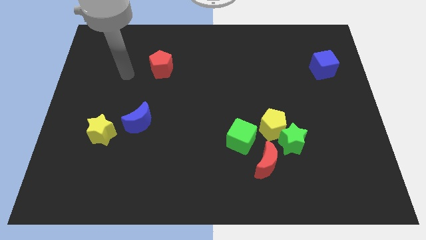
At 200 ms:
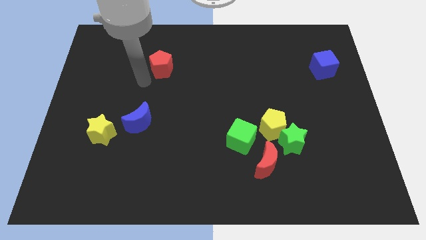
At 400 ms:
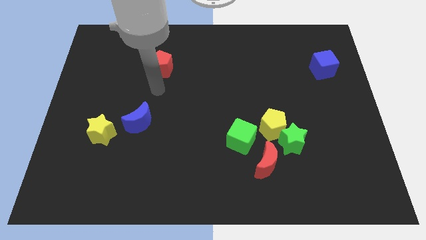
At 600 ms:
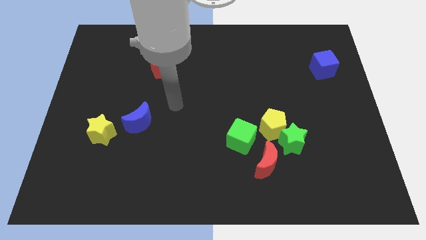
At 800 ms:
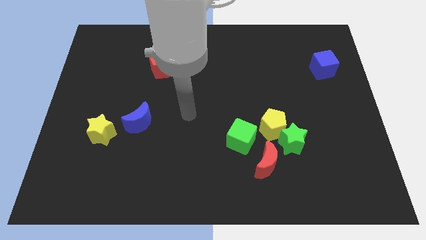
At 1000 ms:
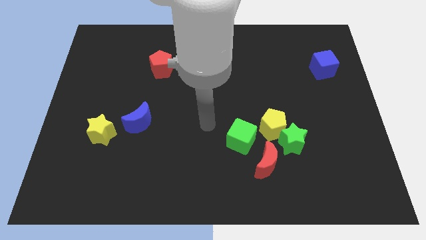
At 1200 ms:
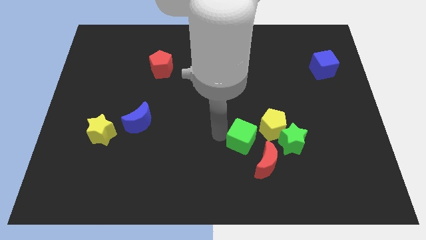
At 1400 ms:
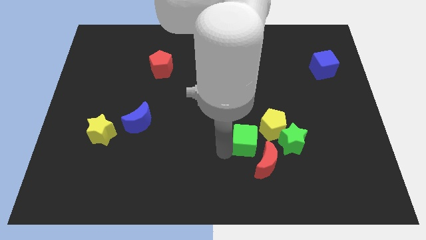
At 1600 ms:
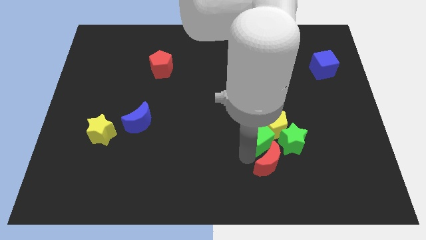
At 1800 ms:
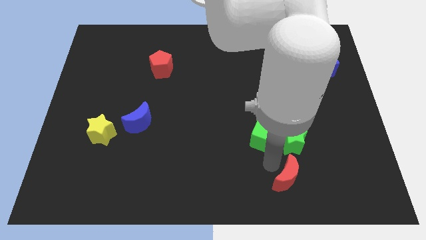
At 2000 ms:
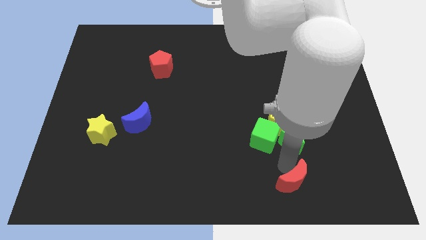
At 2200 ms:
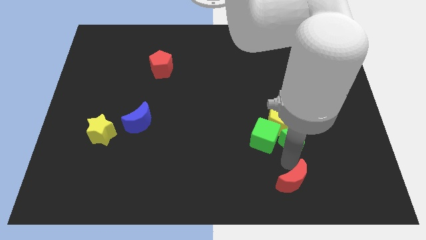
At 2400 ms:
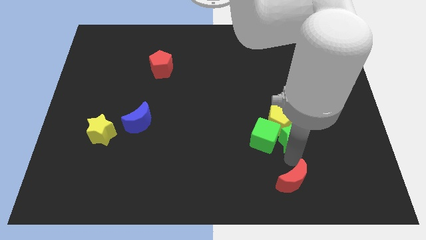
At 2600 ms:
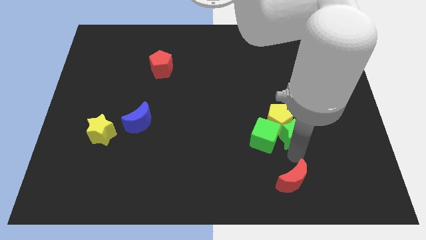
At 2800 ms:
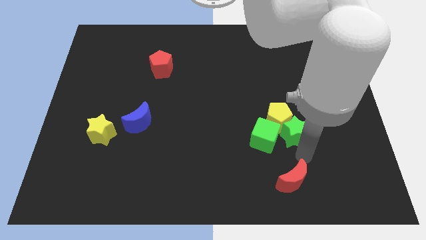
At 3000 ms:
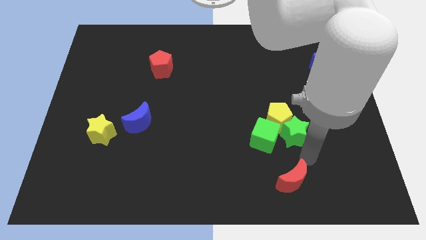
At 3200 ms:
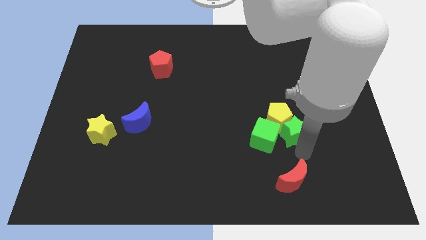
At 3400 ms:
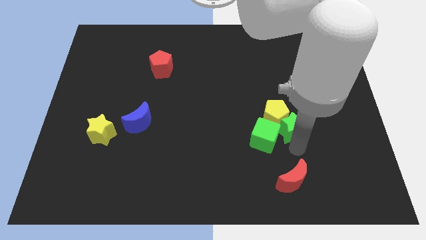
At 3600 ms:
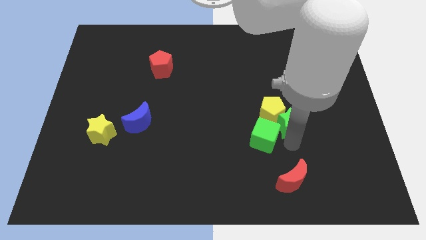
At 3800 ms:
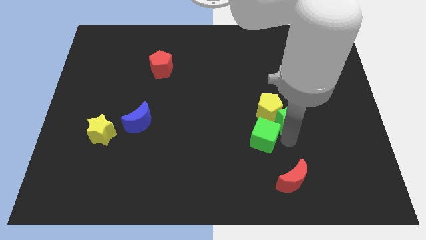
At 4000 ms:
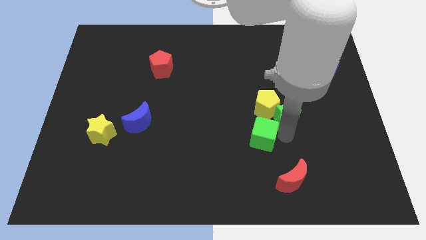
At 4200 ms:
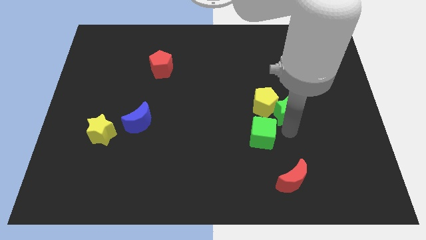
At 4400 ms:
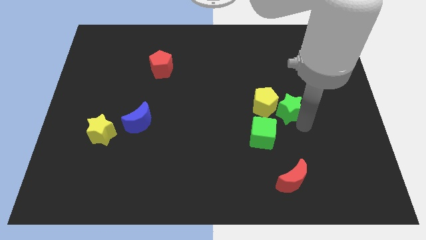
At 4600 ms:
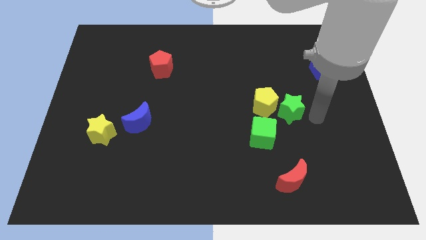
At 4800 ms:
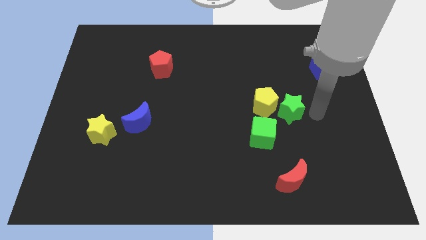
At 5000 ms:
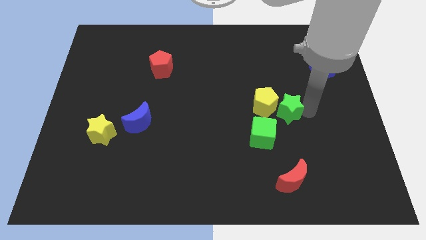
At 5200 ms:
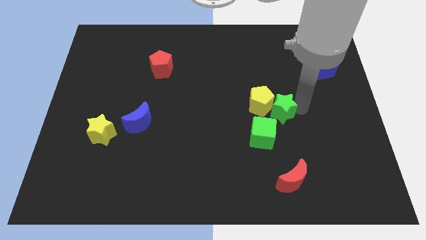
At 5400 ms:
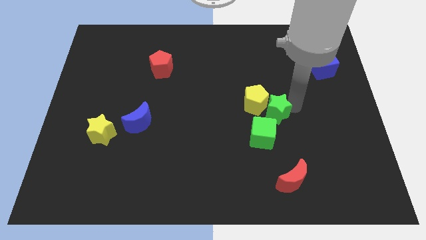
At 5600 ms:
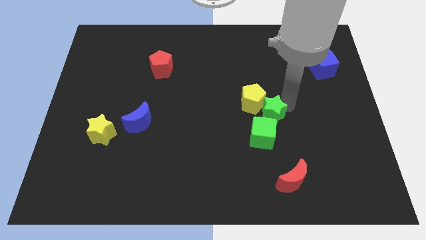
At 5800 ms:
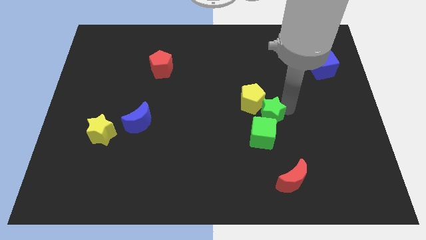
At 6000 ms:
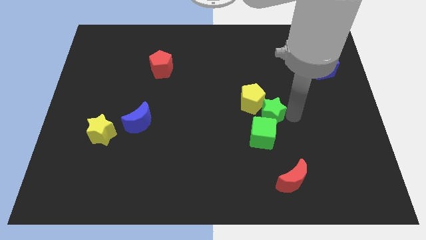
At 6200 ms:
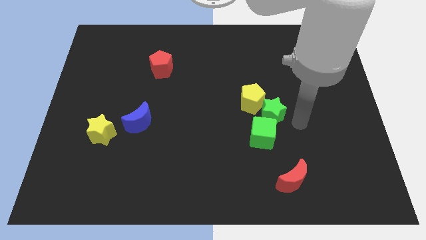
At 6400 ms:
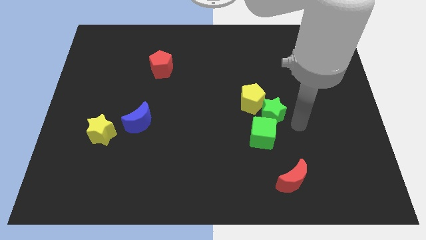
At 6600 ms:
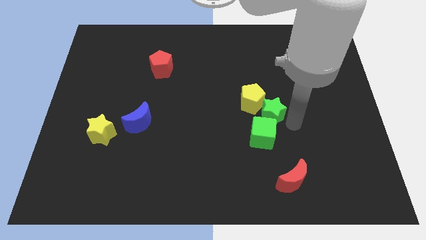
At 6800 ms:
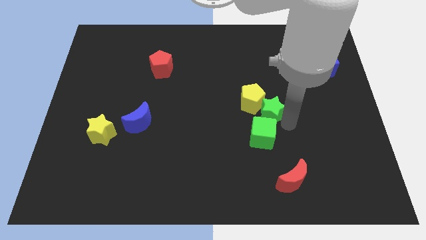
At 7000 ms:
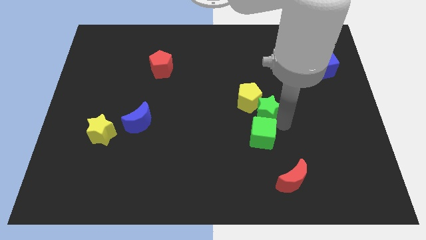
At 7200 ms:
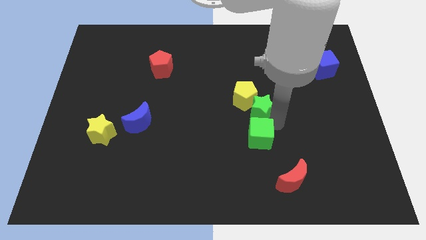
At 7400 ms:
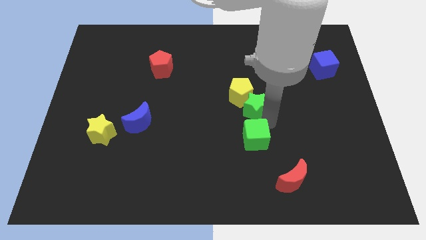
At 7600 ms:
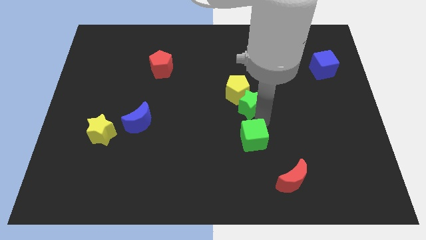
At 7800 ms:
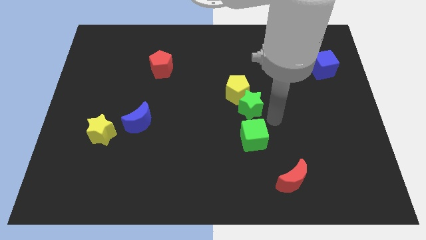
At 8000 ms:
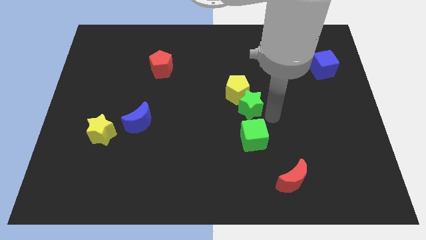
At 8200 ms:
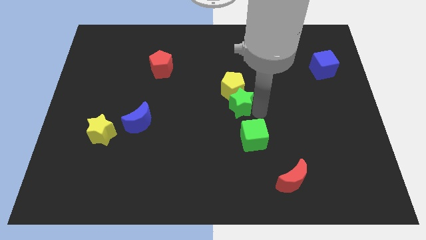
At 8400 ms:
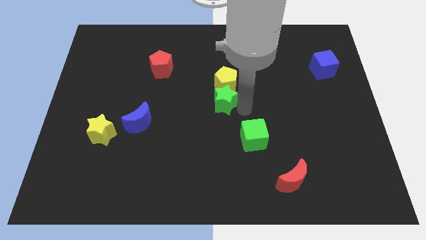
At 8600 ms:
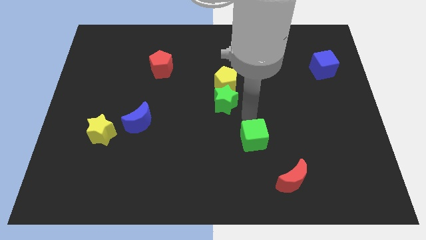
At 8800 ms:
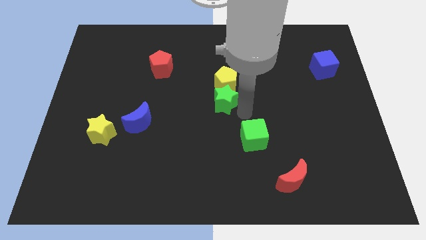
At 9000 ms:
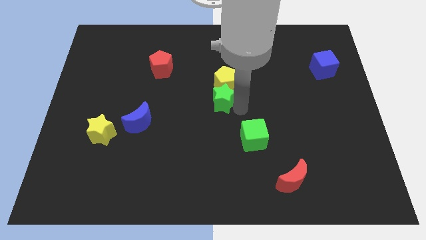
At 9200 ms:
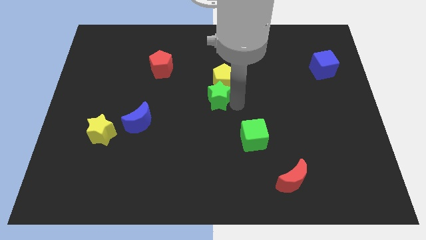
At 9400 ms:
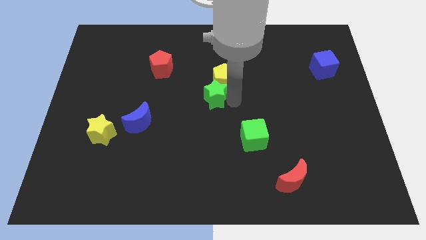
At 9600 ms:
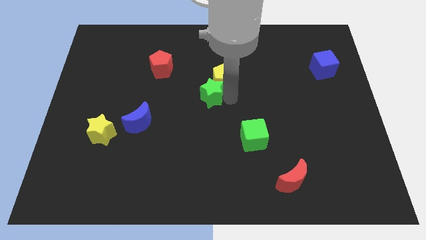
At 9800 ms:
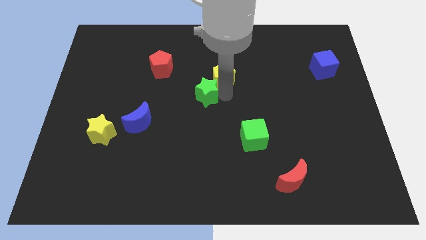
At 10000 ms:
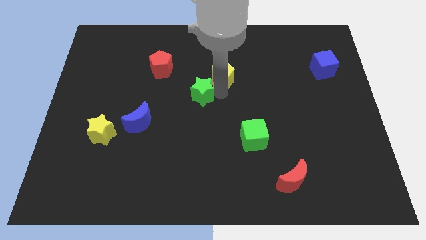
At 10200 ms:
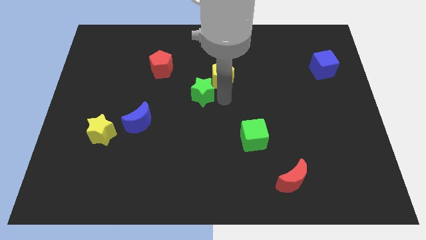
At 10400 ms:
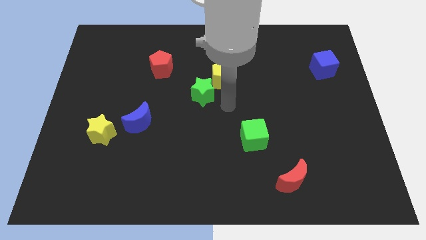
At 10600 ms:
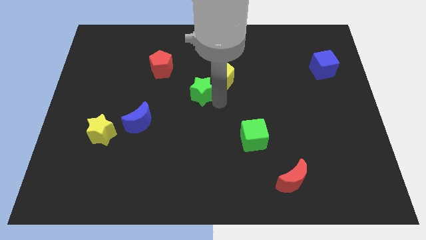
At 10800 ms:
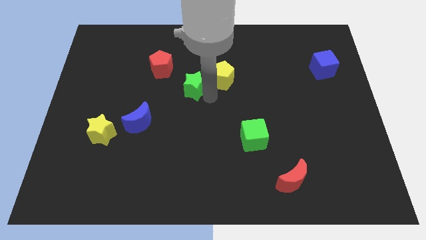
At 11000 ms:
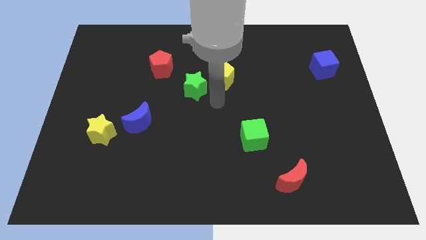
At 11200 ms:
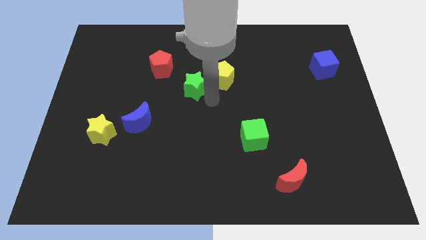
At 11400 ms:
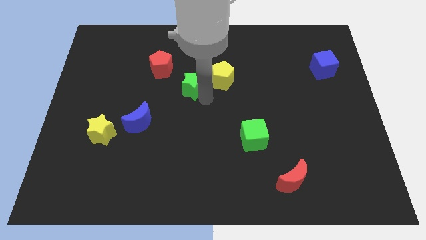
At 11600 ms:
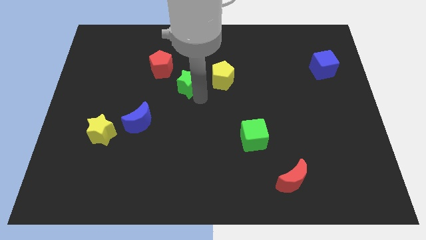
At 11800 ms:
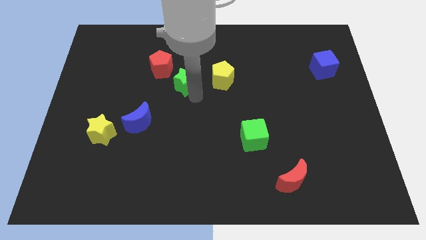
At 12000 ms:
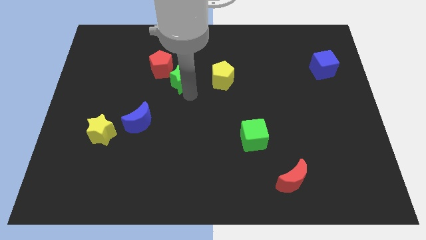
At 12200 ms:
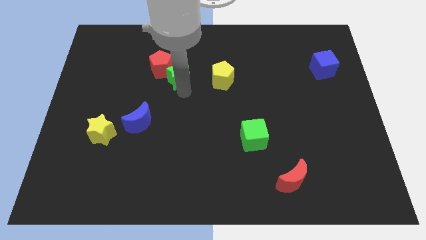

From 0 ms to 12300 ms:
slide the green star to the red pentagon

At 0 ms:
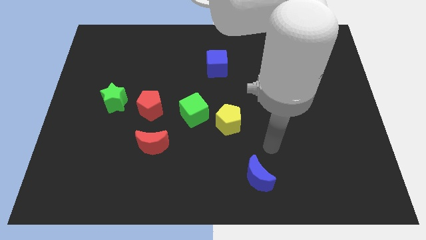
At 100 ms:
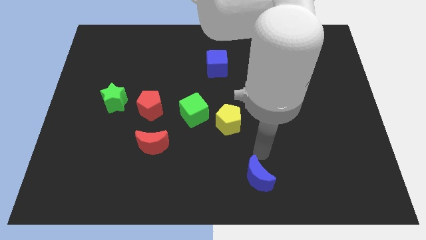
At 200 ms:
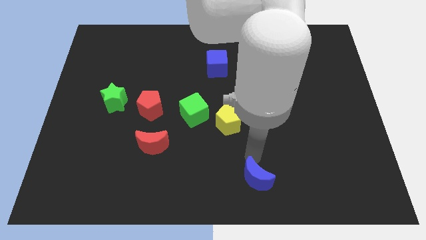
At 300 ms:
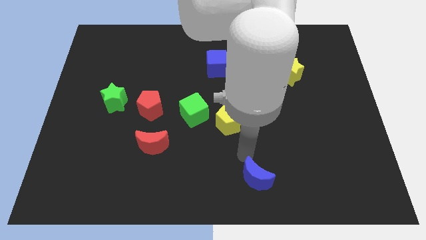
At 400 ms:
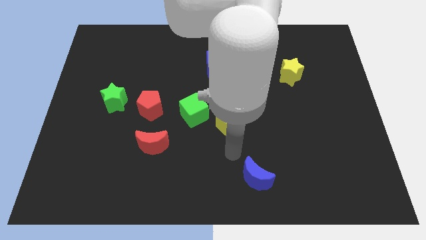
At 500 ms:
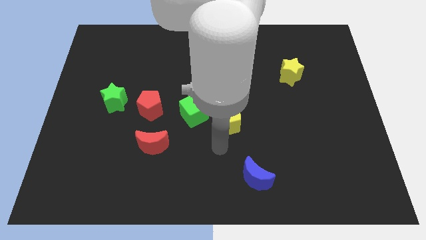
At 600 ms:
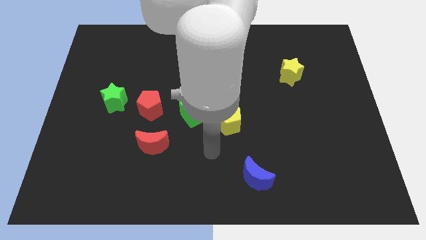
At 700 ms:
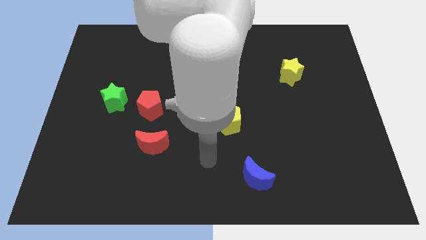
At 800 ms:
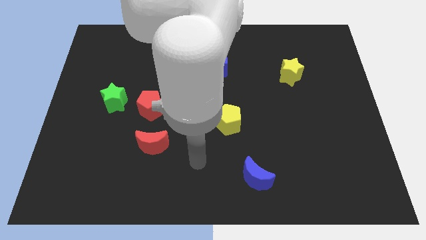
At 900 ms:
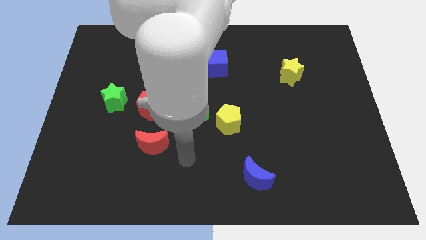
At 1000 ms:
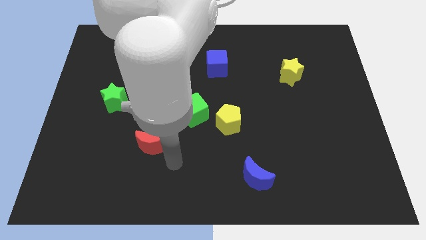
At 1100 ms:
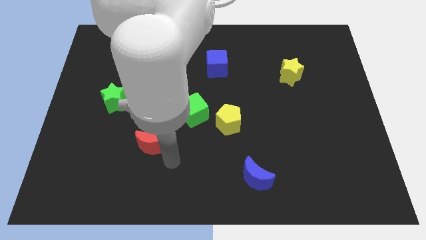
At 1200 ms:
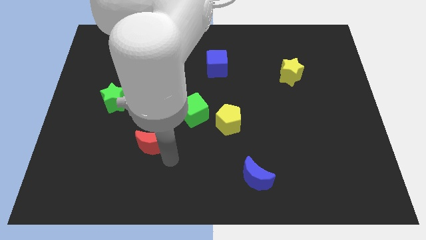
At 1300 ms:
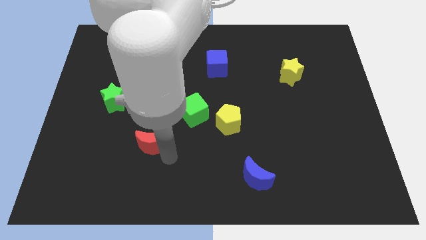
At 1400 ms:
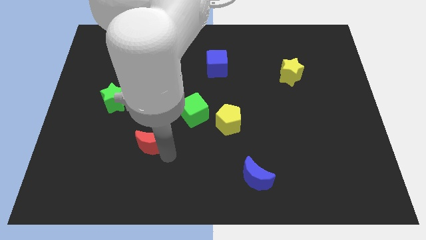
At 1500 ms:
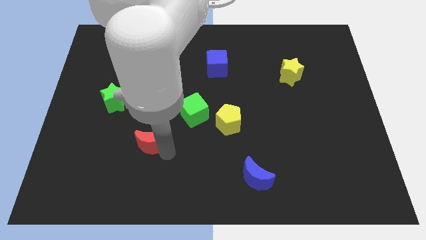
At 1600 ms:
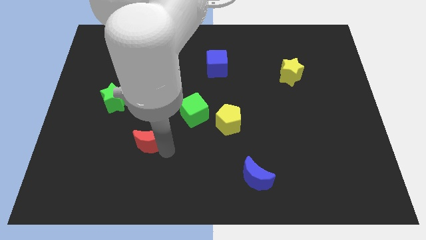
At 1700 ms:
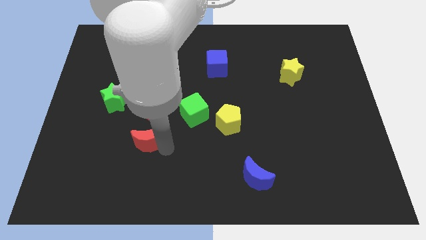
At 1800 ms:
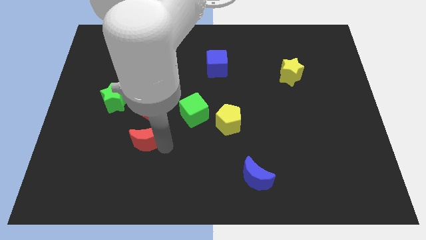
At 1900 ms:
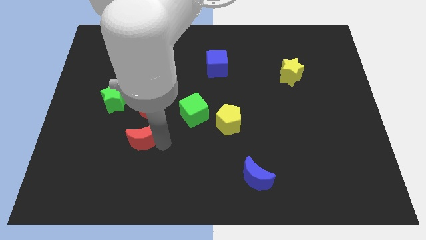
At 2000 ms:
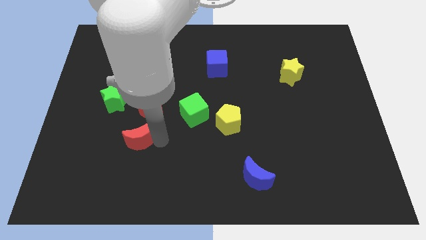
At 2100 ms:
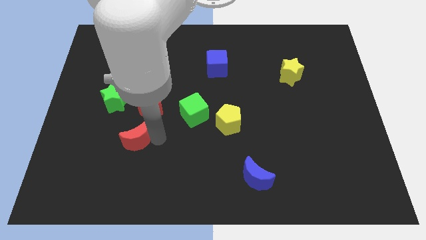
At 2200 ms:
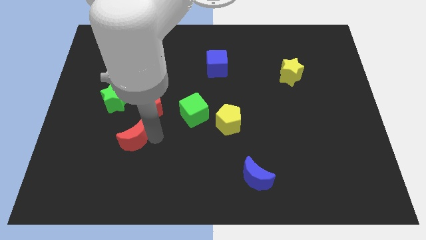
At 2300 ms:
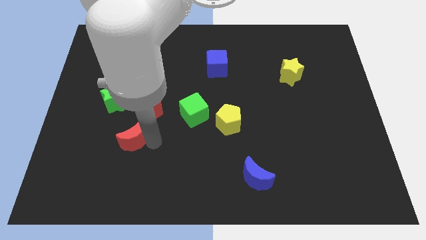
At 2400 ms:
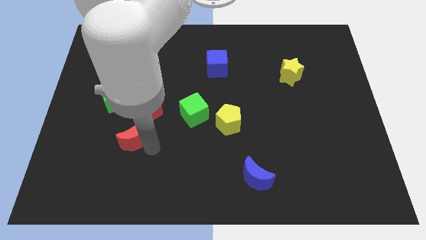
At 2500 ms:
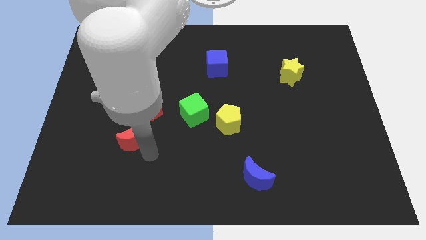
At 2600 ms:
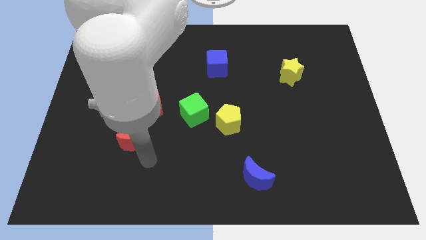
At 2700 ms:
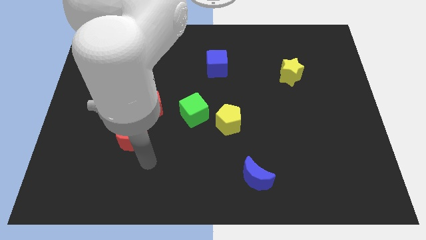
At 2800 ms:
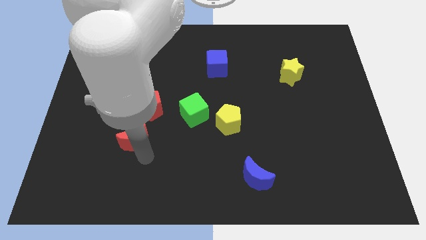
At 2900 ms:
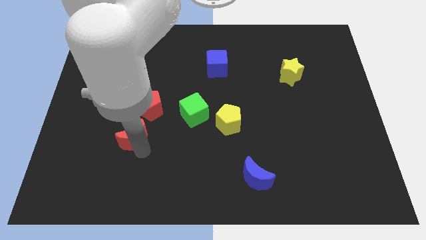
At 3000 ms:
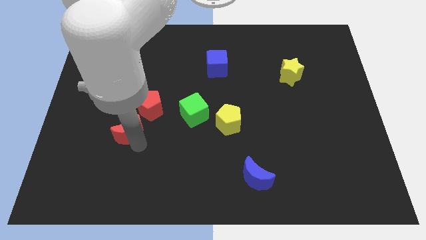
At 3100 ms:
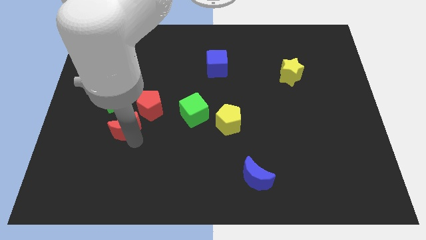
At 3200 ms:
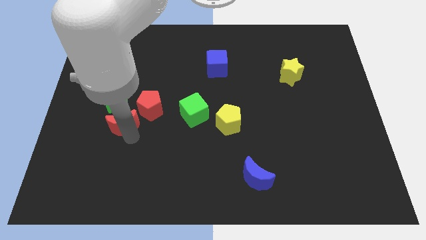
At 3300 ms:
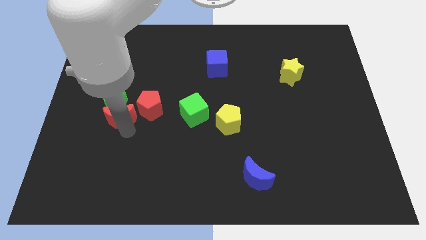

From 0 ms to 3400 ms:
put the red moon towards the green star
